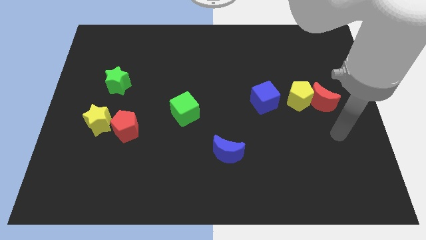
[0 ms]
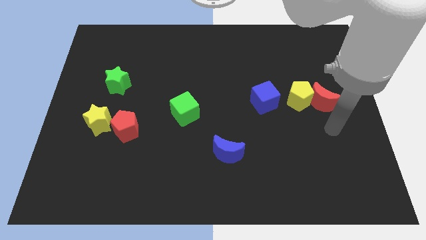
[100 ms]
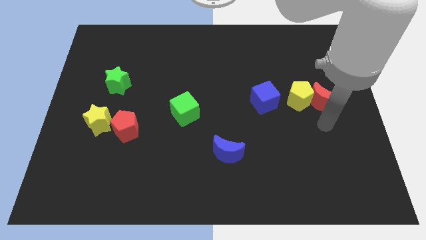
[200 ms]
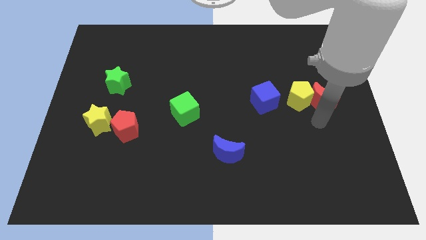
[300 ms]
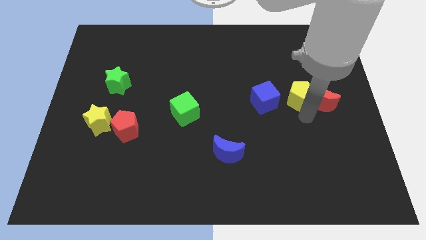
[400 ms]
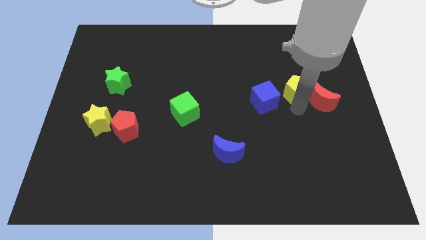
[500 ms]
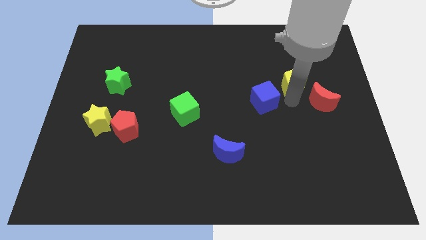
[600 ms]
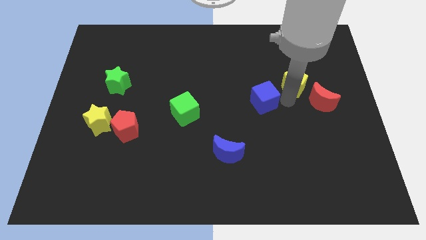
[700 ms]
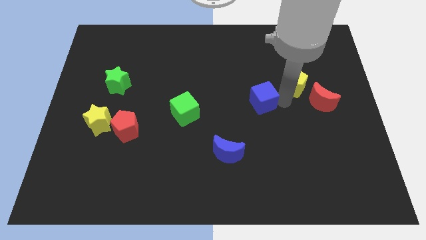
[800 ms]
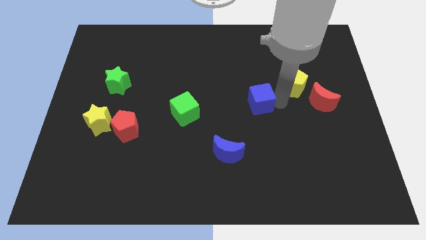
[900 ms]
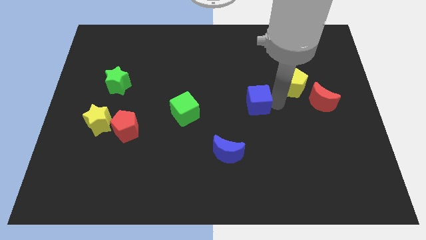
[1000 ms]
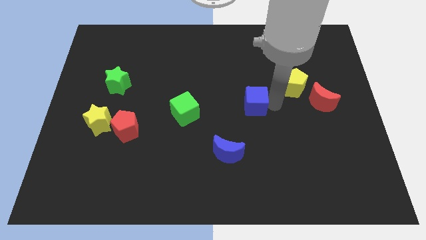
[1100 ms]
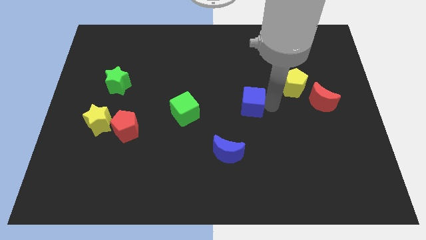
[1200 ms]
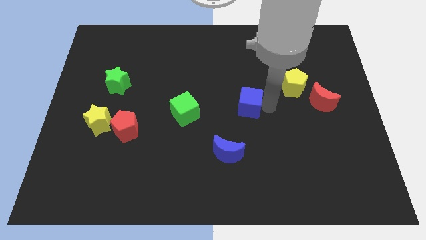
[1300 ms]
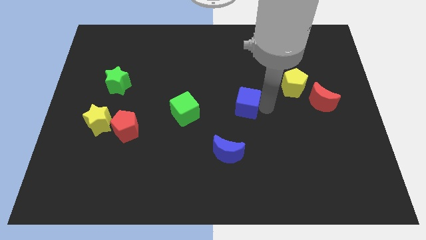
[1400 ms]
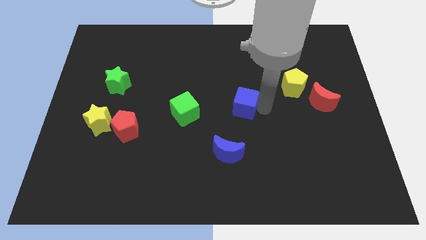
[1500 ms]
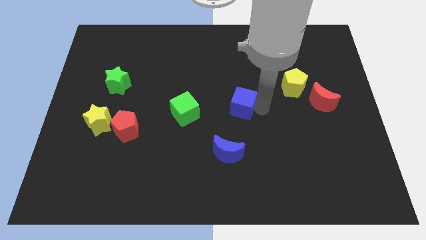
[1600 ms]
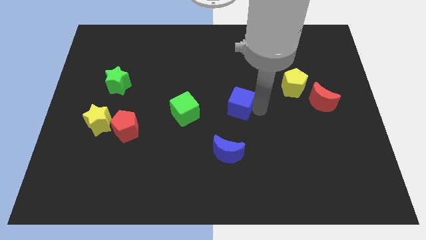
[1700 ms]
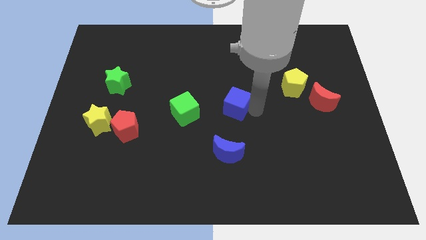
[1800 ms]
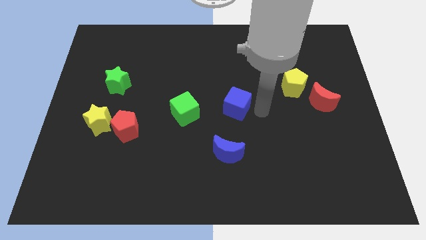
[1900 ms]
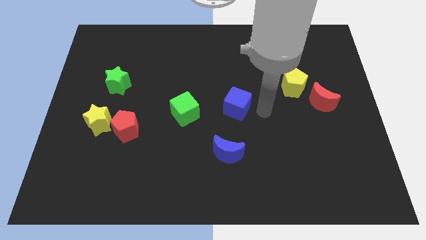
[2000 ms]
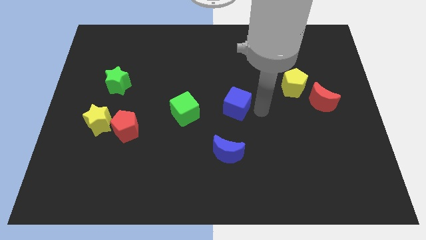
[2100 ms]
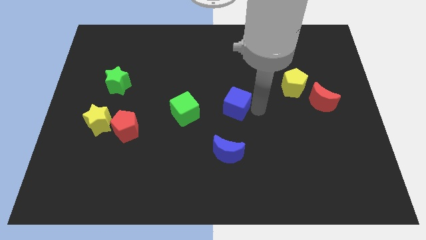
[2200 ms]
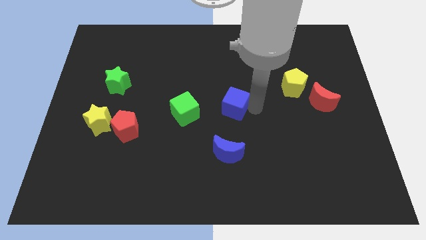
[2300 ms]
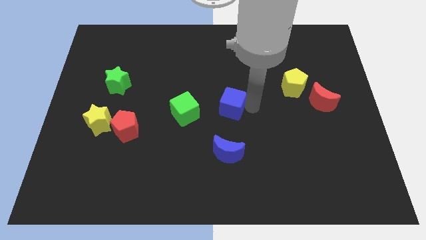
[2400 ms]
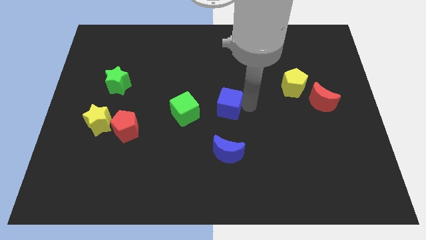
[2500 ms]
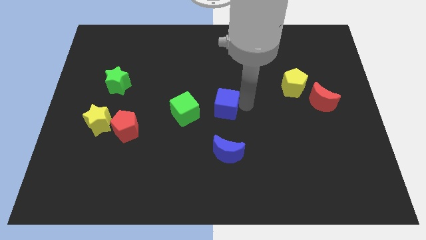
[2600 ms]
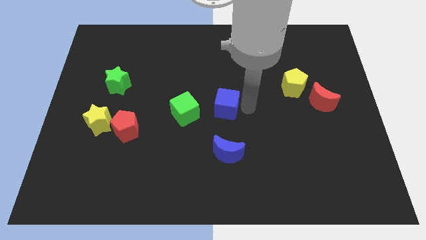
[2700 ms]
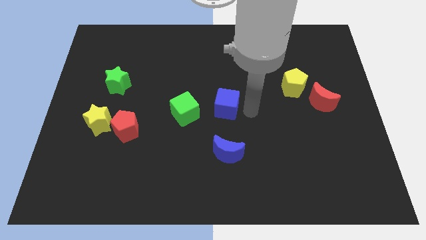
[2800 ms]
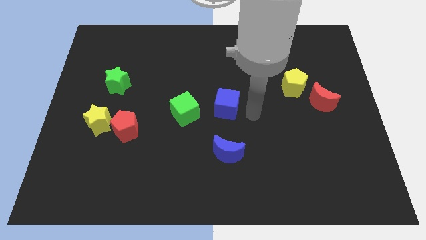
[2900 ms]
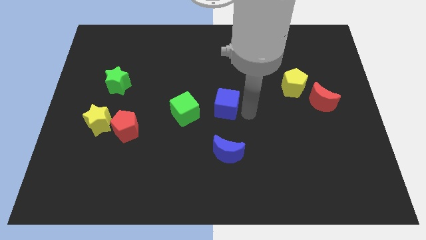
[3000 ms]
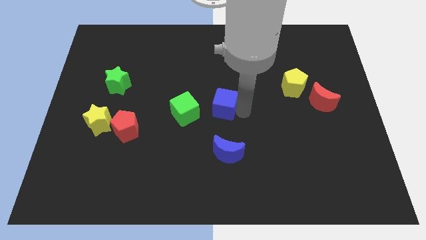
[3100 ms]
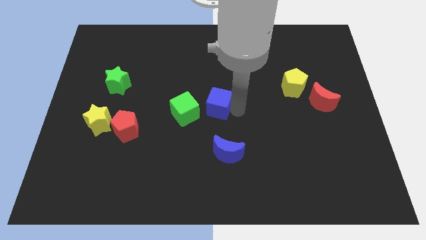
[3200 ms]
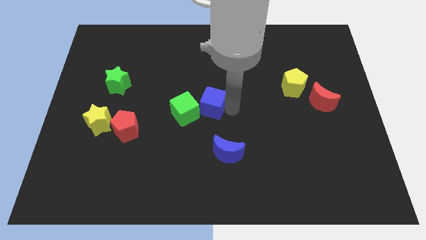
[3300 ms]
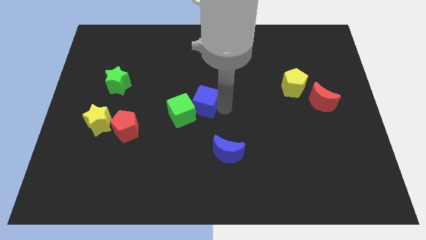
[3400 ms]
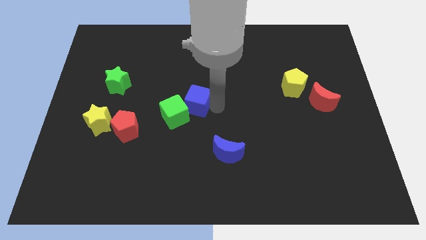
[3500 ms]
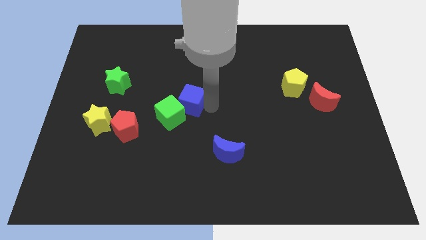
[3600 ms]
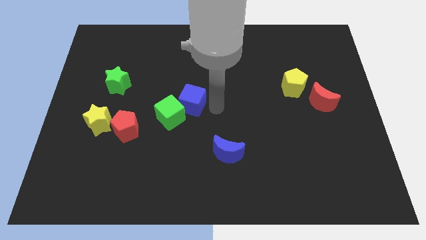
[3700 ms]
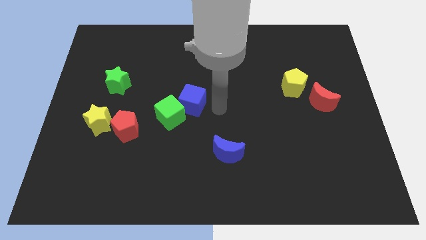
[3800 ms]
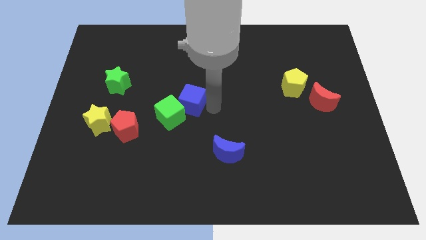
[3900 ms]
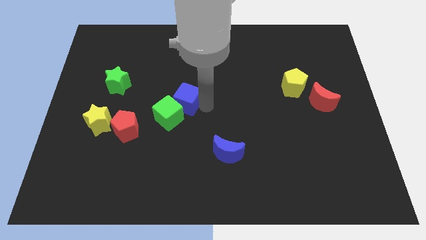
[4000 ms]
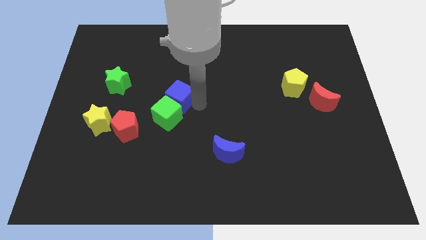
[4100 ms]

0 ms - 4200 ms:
push the blue cube to the left

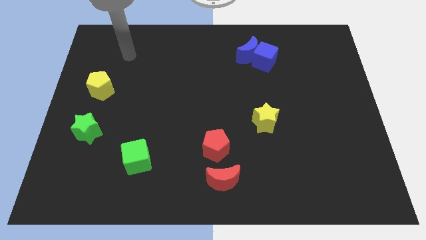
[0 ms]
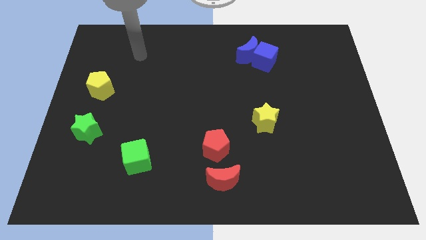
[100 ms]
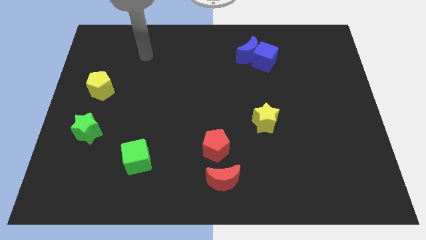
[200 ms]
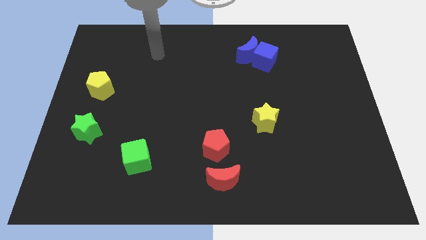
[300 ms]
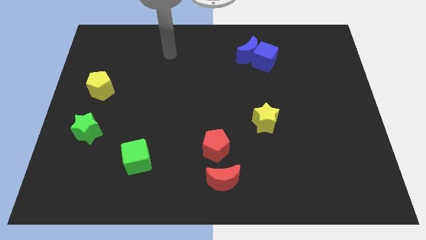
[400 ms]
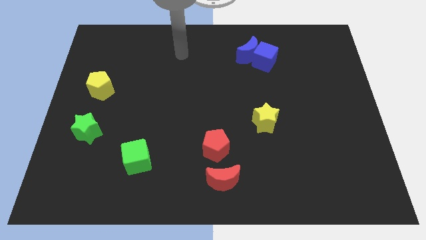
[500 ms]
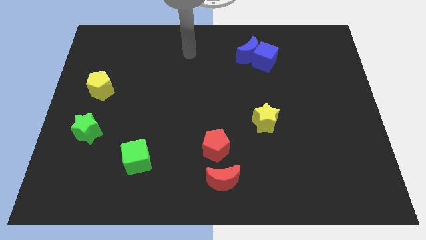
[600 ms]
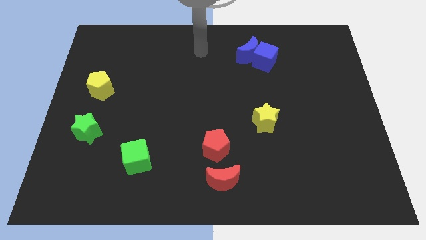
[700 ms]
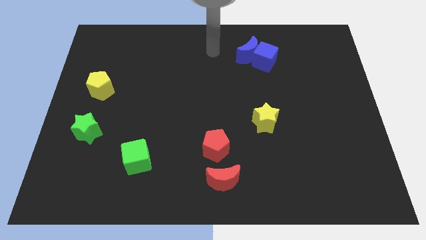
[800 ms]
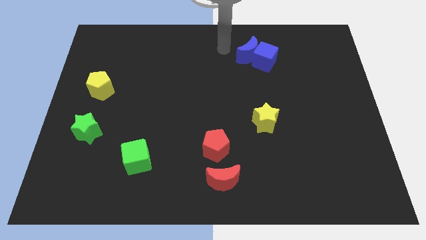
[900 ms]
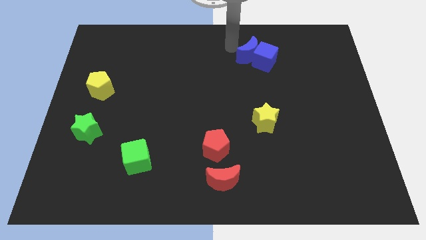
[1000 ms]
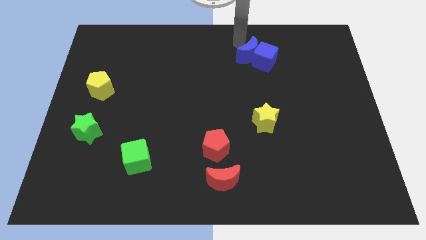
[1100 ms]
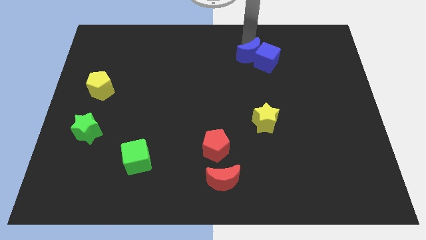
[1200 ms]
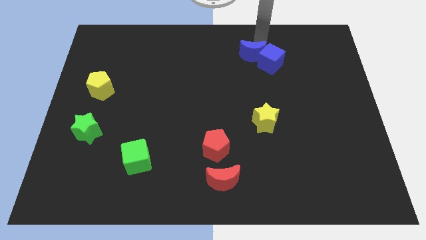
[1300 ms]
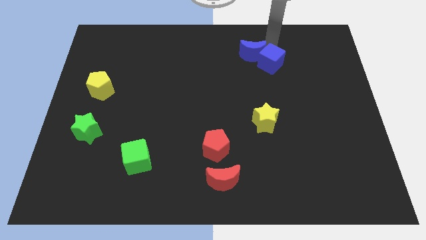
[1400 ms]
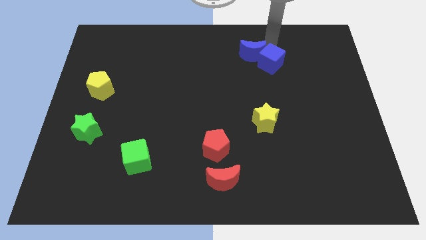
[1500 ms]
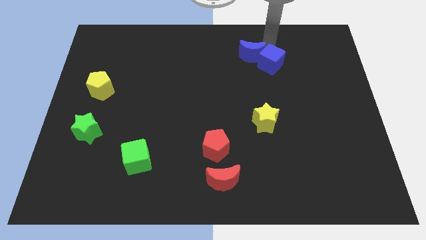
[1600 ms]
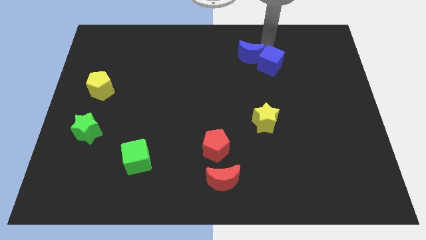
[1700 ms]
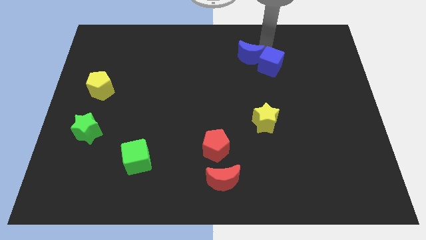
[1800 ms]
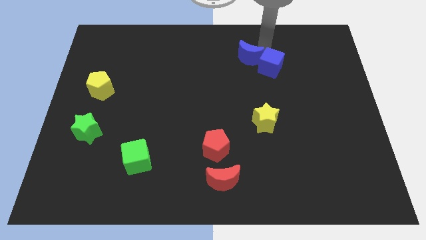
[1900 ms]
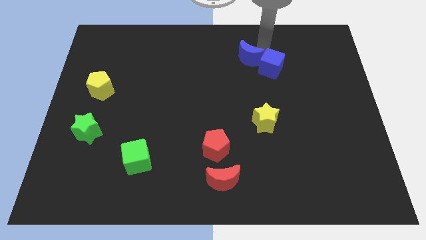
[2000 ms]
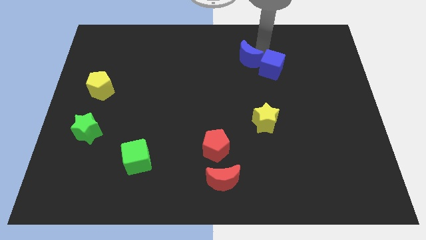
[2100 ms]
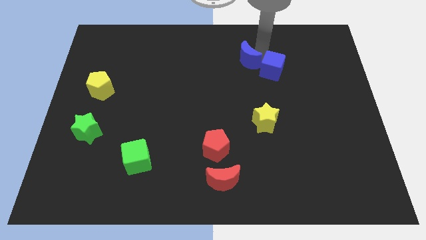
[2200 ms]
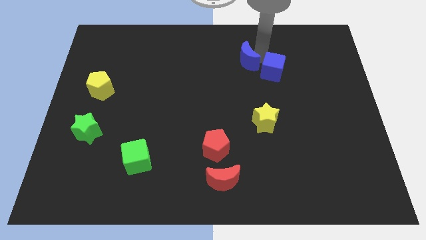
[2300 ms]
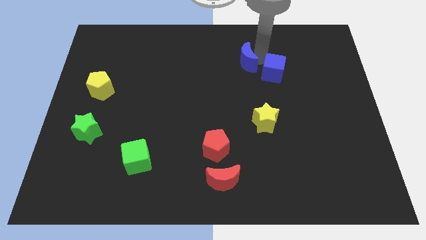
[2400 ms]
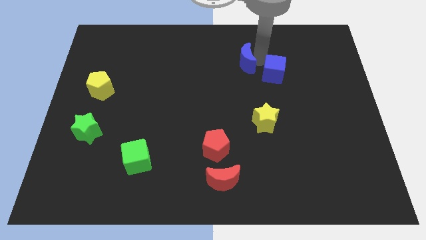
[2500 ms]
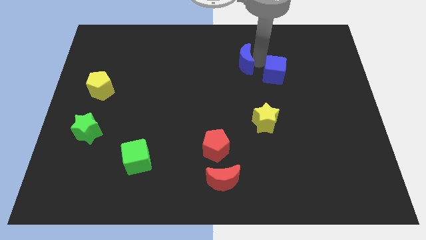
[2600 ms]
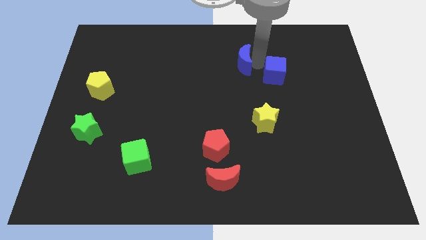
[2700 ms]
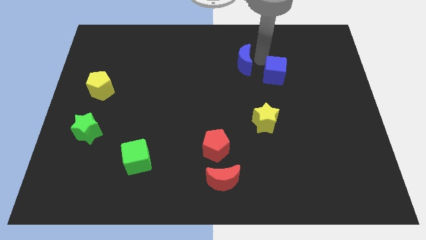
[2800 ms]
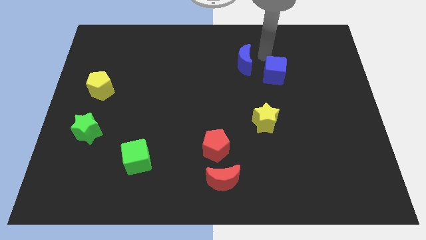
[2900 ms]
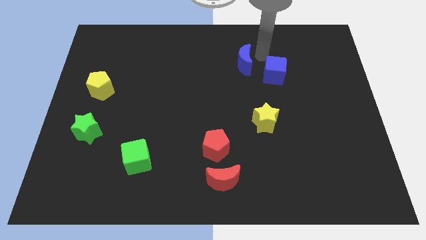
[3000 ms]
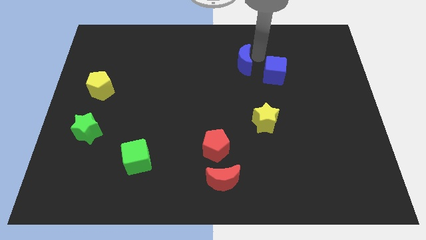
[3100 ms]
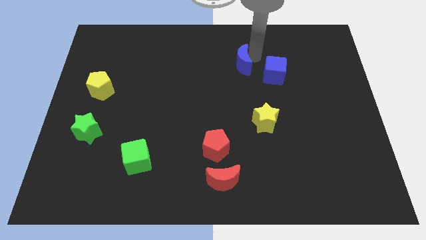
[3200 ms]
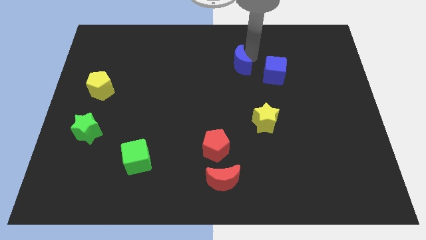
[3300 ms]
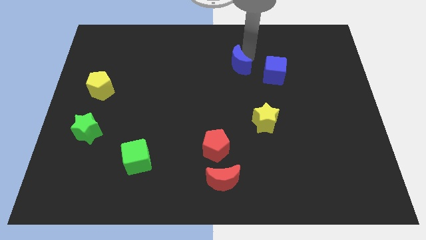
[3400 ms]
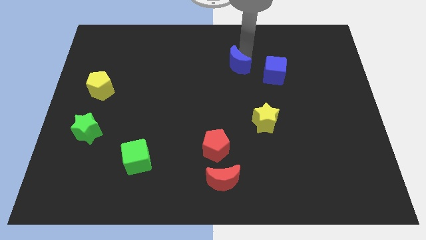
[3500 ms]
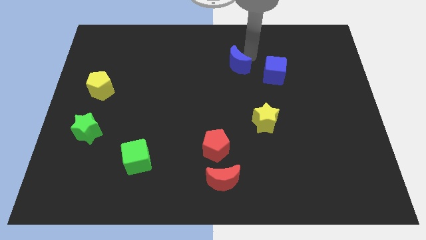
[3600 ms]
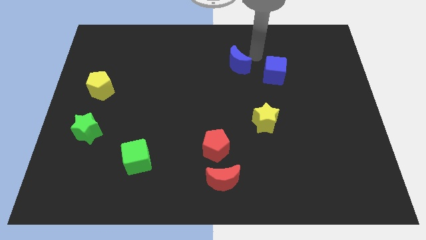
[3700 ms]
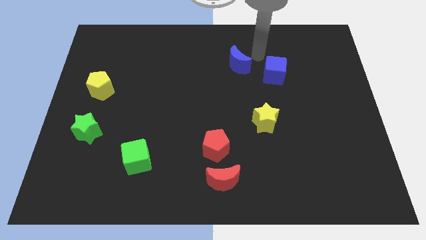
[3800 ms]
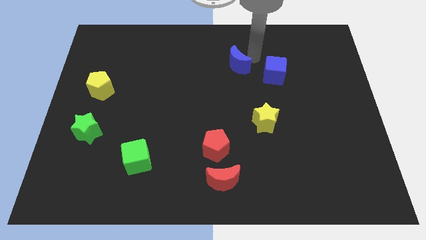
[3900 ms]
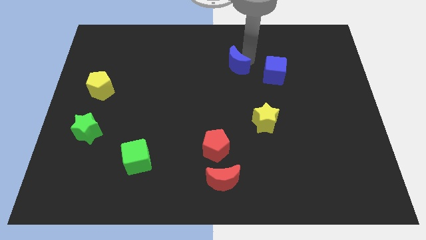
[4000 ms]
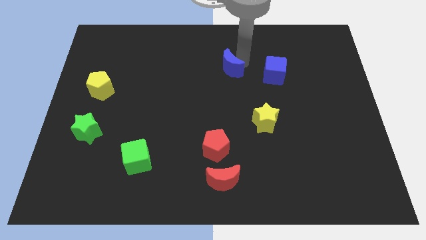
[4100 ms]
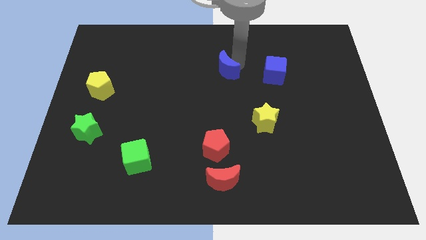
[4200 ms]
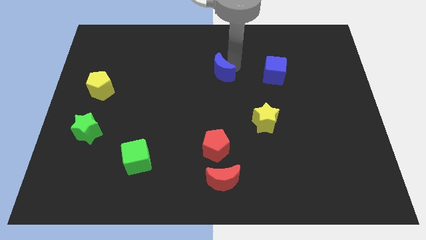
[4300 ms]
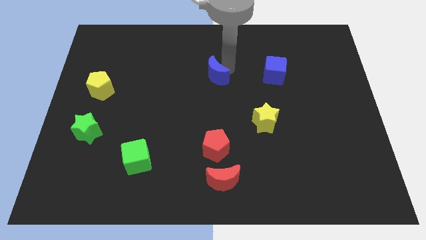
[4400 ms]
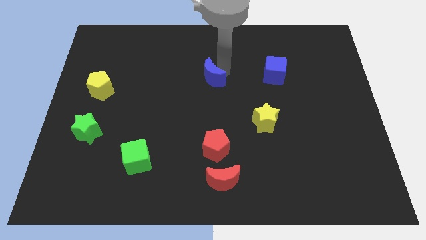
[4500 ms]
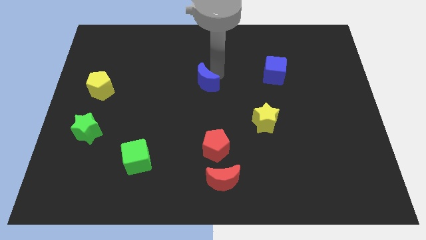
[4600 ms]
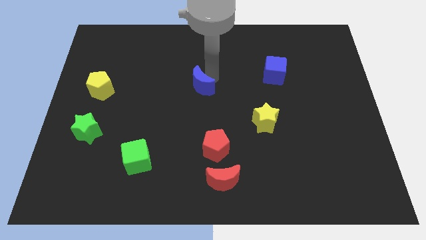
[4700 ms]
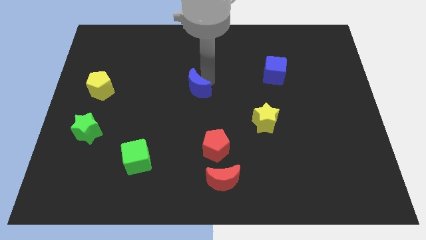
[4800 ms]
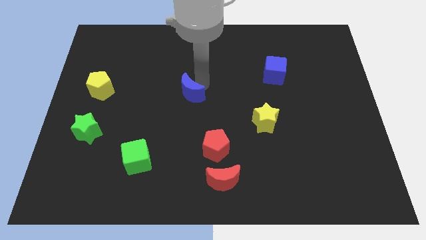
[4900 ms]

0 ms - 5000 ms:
slide the blue moon downwards and left
